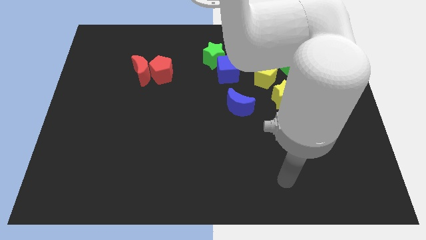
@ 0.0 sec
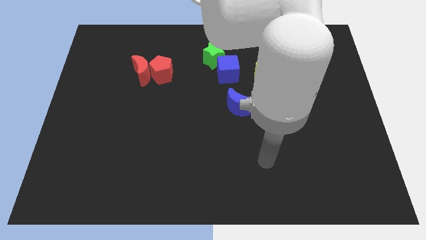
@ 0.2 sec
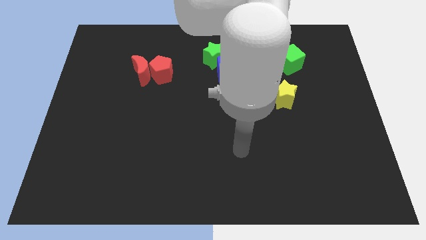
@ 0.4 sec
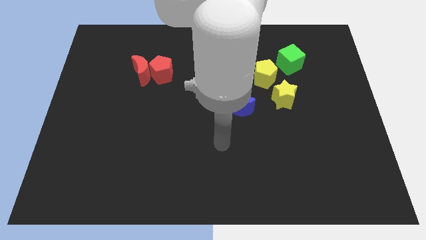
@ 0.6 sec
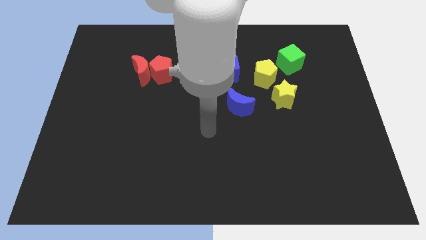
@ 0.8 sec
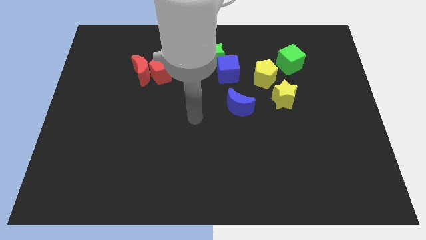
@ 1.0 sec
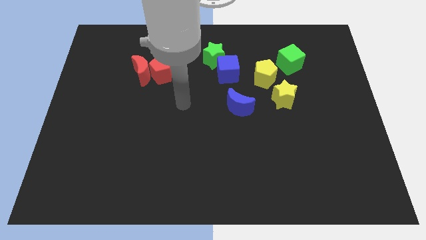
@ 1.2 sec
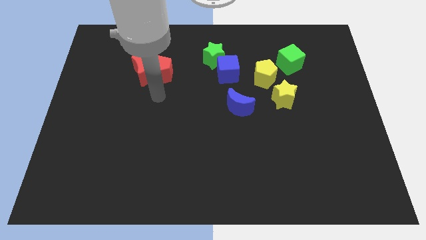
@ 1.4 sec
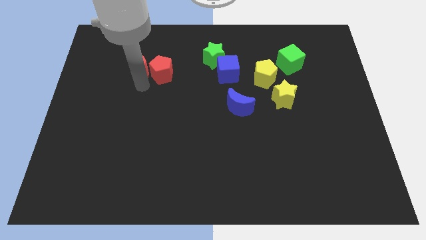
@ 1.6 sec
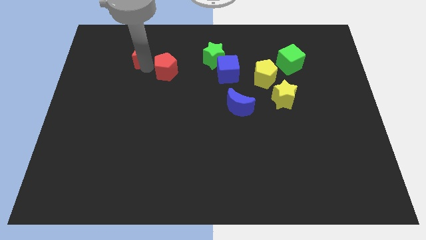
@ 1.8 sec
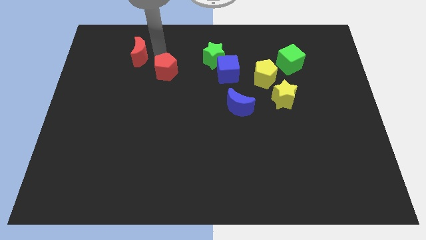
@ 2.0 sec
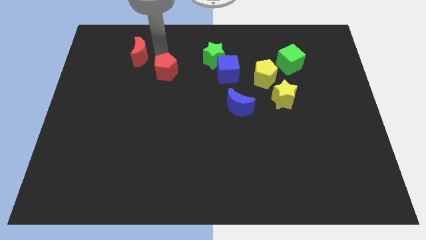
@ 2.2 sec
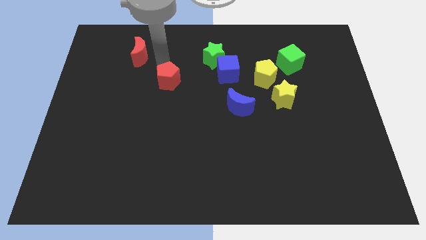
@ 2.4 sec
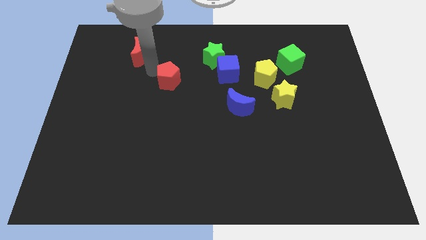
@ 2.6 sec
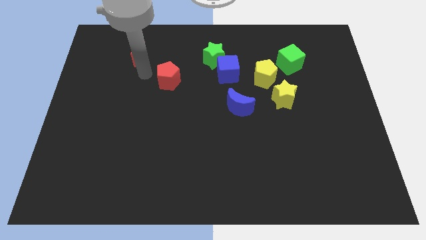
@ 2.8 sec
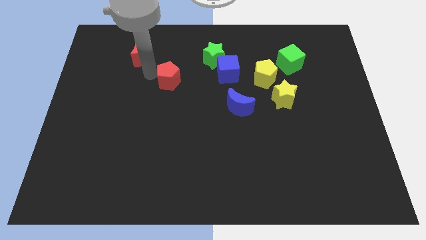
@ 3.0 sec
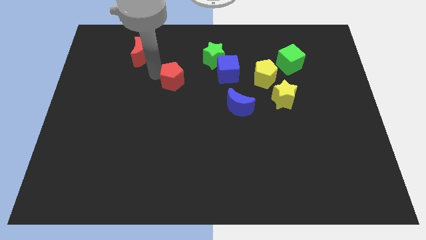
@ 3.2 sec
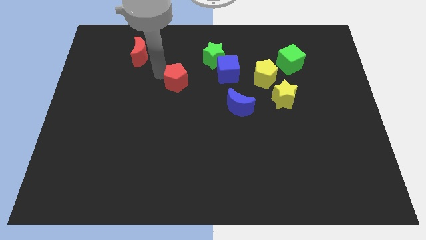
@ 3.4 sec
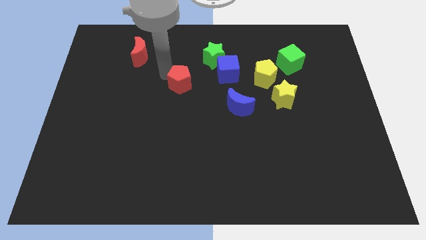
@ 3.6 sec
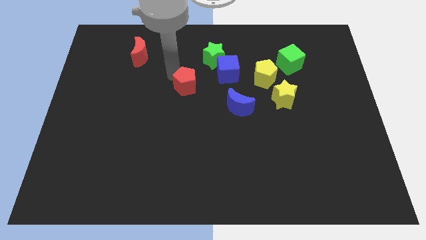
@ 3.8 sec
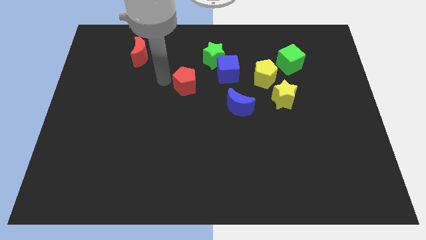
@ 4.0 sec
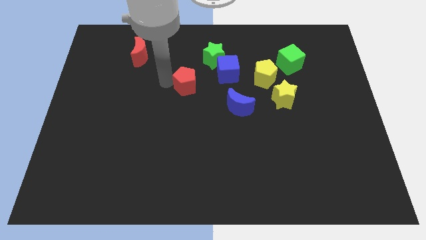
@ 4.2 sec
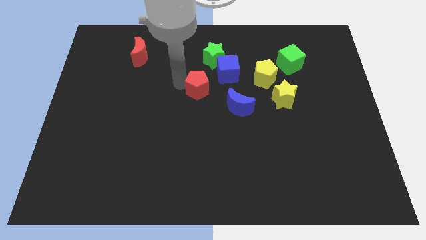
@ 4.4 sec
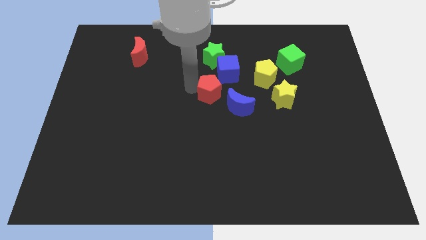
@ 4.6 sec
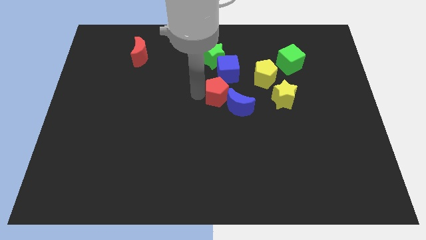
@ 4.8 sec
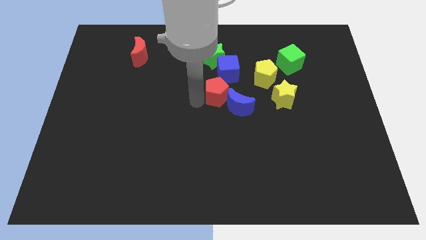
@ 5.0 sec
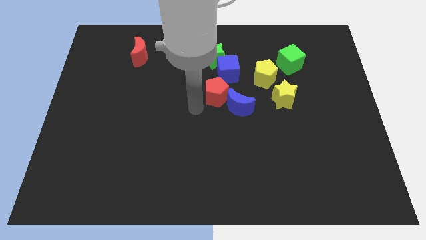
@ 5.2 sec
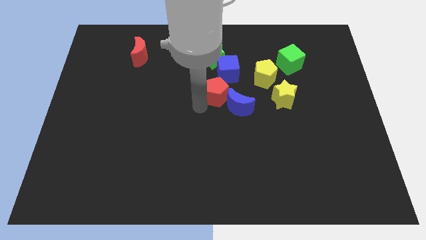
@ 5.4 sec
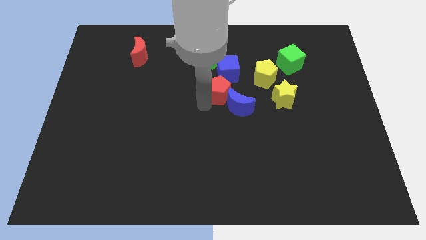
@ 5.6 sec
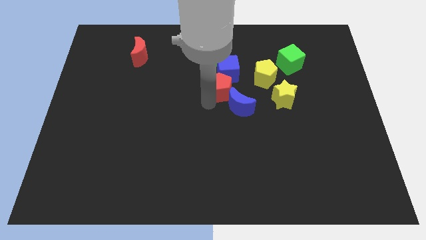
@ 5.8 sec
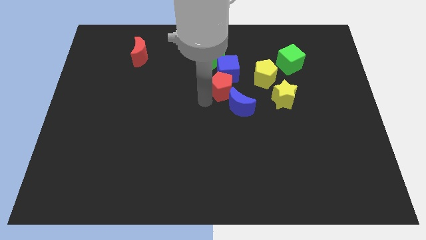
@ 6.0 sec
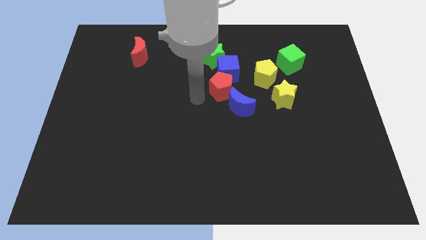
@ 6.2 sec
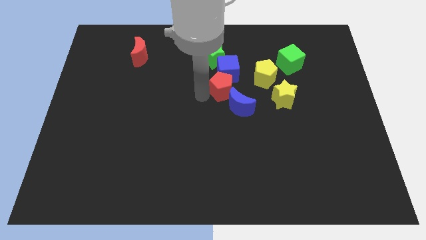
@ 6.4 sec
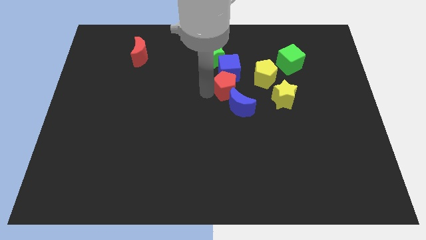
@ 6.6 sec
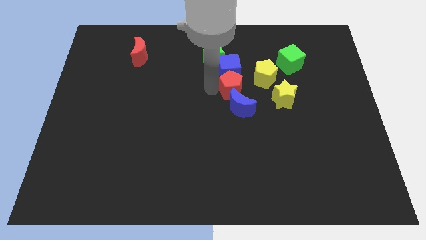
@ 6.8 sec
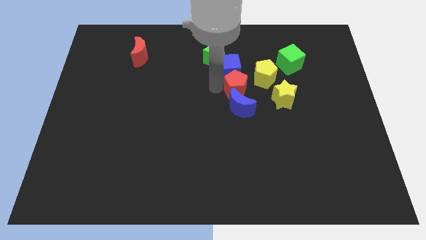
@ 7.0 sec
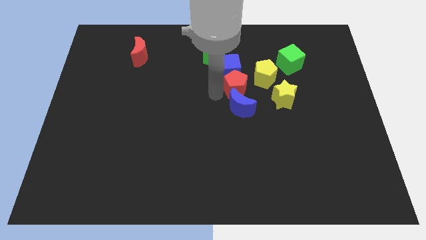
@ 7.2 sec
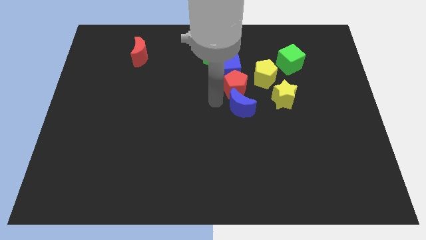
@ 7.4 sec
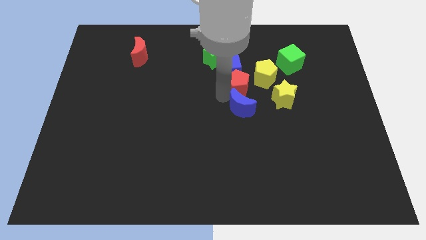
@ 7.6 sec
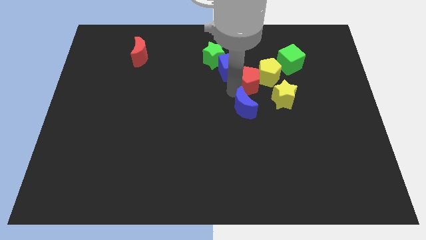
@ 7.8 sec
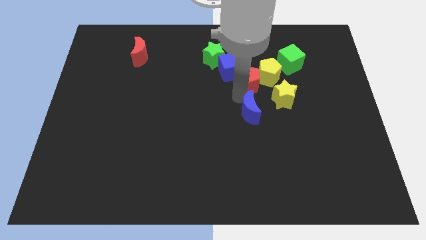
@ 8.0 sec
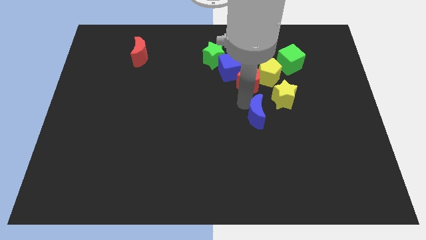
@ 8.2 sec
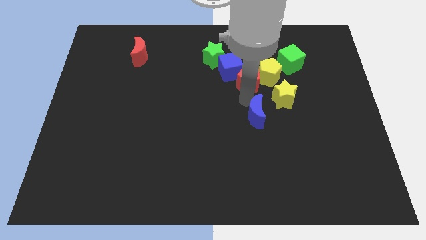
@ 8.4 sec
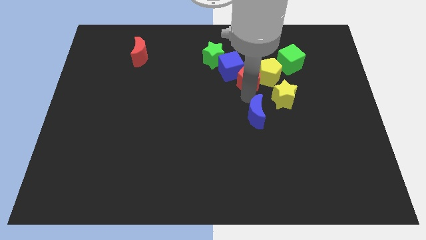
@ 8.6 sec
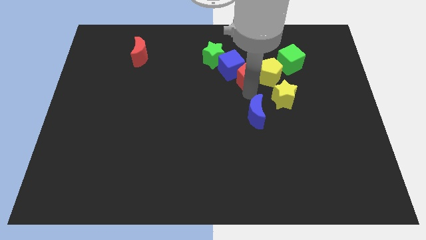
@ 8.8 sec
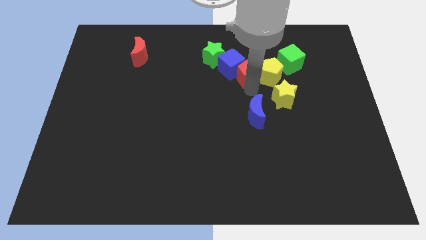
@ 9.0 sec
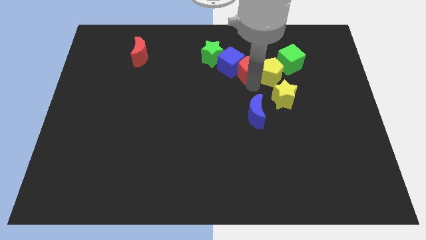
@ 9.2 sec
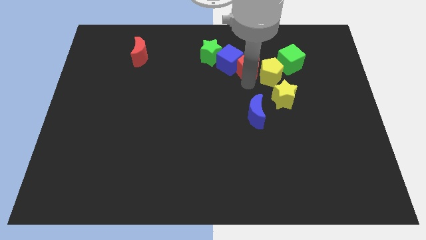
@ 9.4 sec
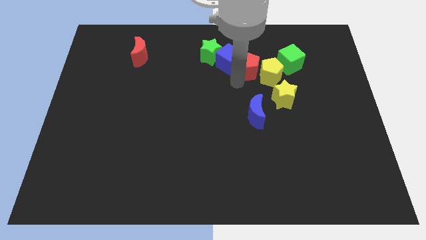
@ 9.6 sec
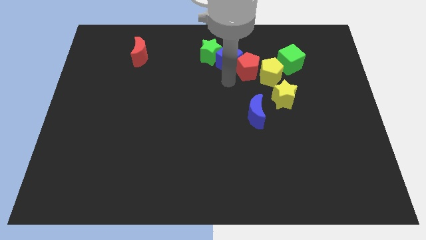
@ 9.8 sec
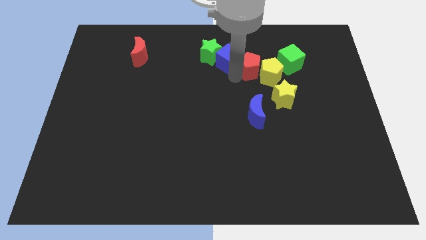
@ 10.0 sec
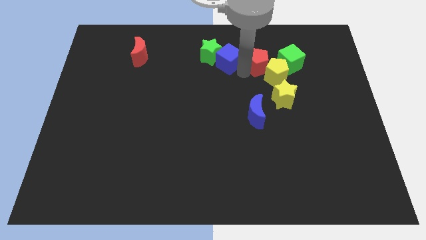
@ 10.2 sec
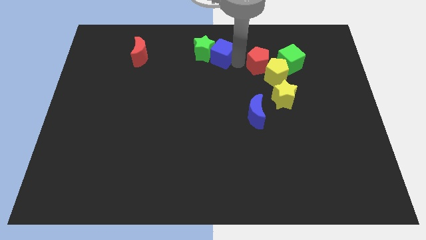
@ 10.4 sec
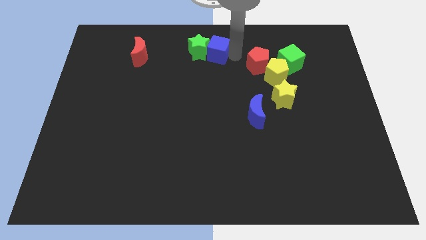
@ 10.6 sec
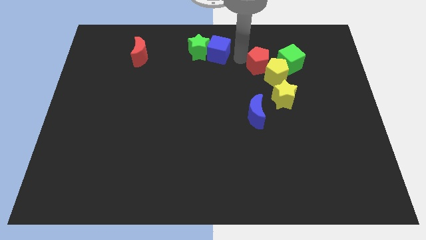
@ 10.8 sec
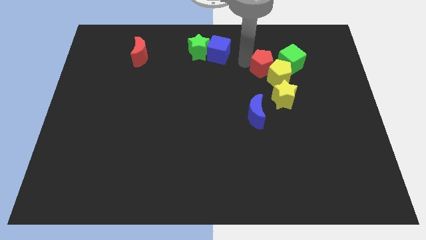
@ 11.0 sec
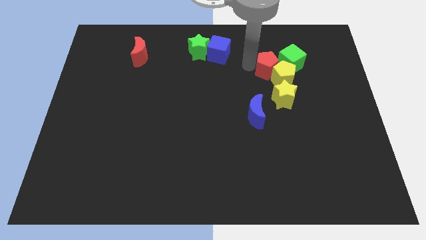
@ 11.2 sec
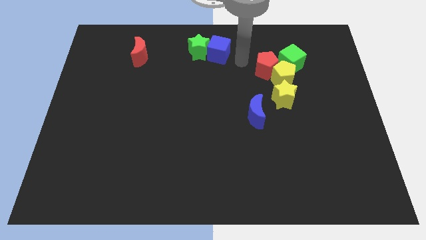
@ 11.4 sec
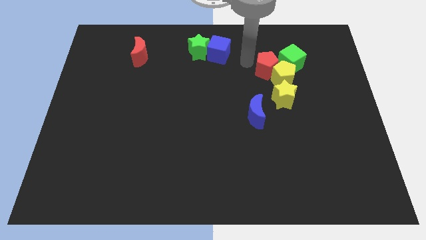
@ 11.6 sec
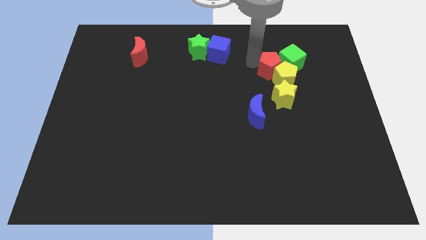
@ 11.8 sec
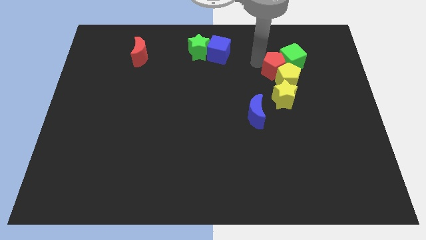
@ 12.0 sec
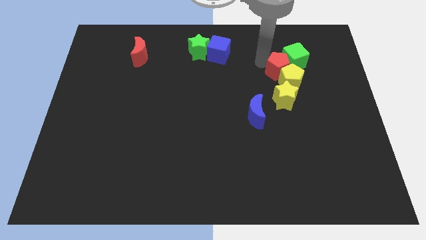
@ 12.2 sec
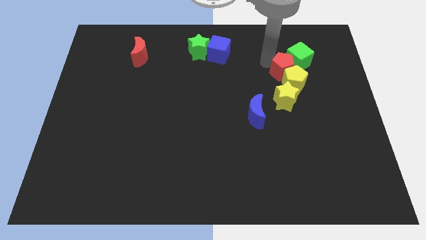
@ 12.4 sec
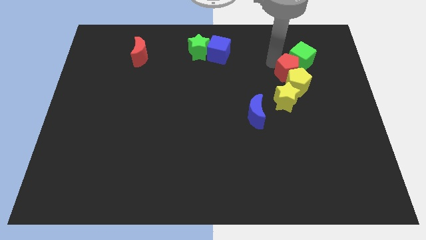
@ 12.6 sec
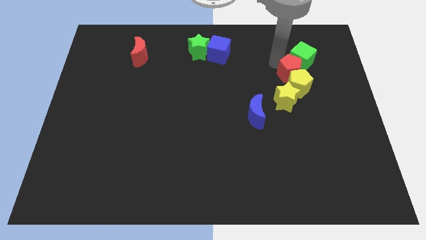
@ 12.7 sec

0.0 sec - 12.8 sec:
push the red pentagon diagonally up and to the right of the yellow star

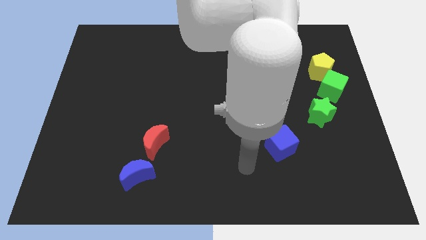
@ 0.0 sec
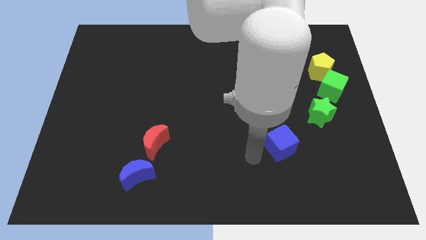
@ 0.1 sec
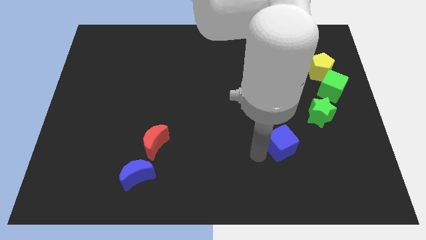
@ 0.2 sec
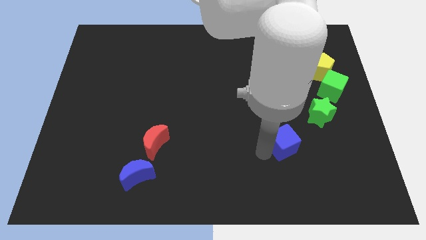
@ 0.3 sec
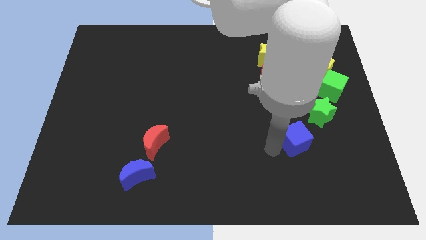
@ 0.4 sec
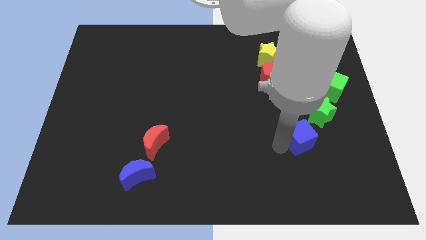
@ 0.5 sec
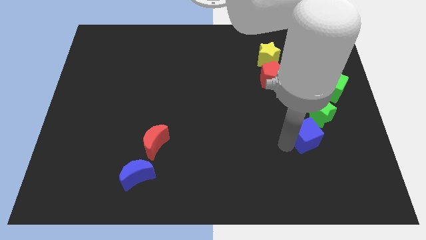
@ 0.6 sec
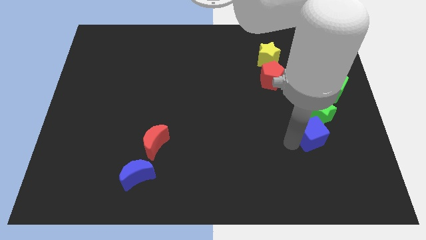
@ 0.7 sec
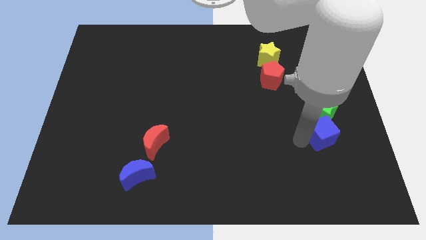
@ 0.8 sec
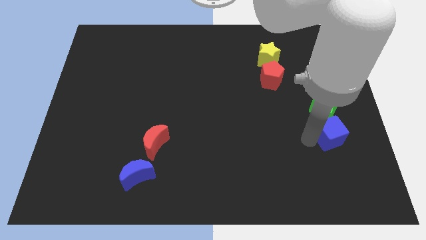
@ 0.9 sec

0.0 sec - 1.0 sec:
slide the blue cube to the bottom side of the green cube
